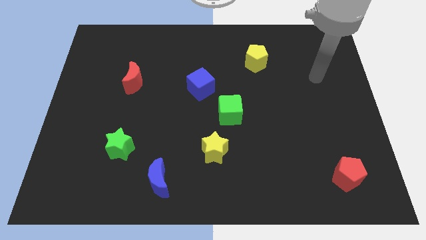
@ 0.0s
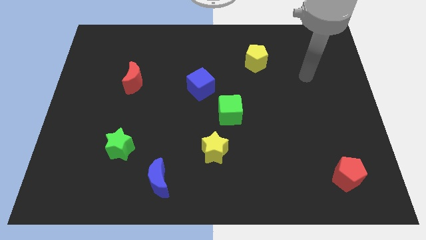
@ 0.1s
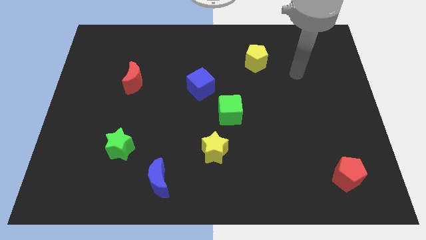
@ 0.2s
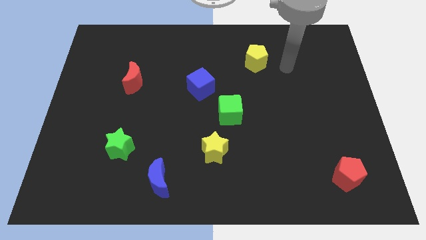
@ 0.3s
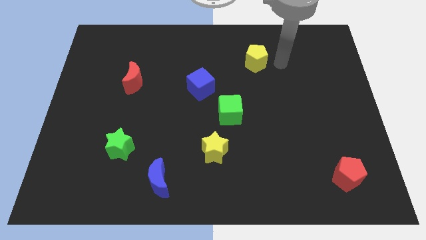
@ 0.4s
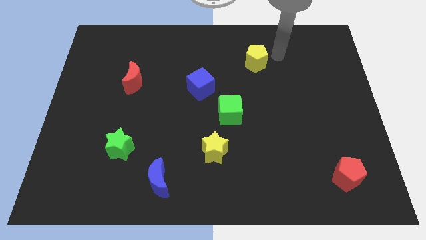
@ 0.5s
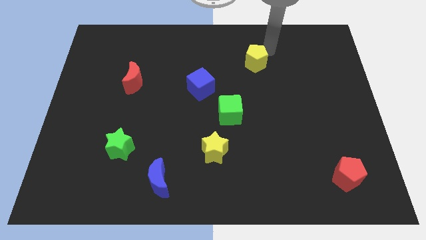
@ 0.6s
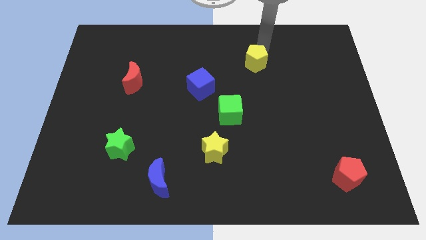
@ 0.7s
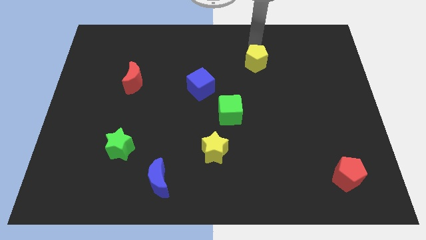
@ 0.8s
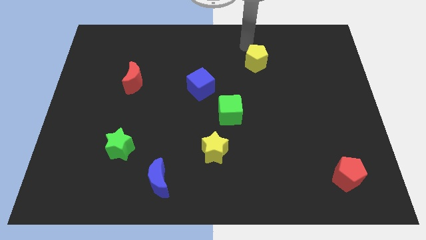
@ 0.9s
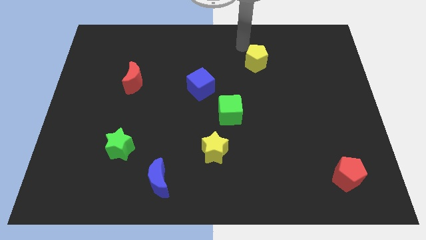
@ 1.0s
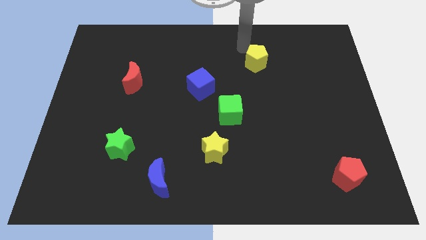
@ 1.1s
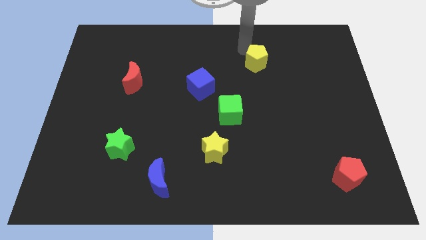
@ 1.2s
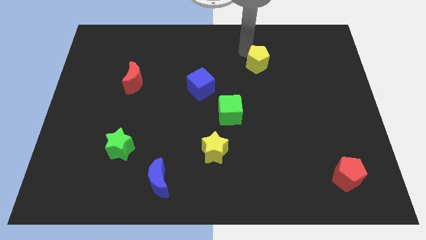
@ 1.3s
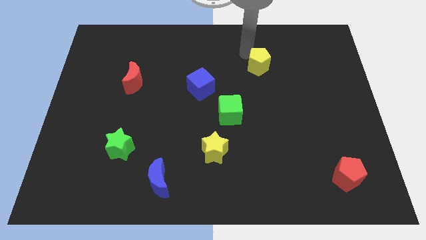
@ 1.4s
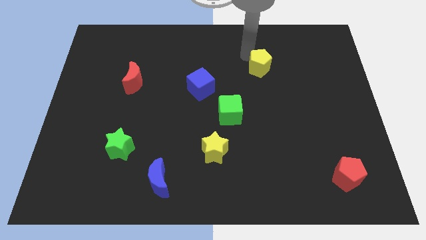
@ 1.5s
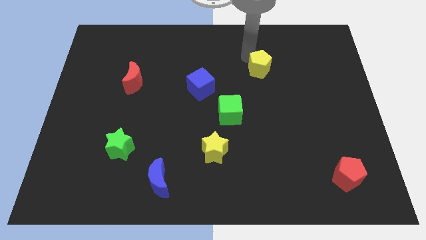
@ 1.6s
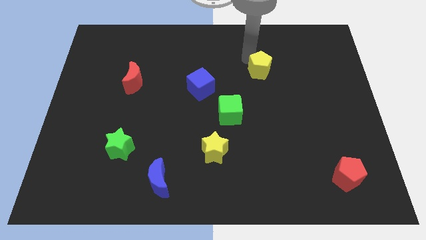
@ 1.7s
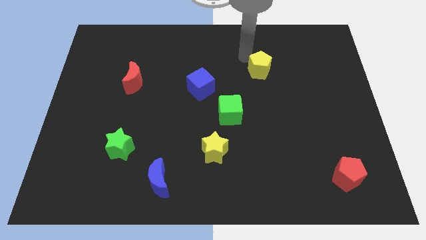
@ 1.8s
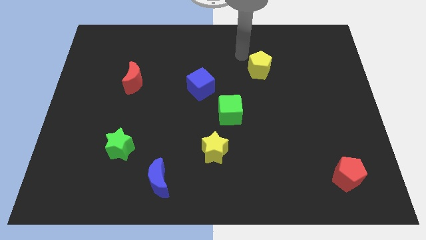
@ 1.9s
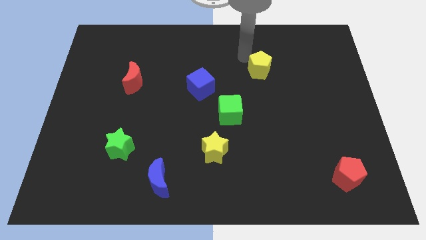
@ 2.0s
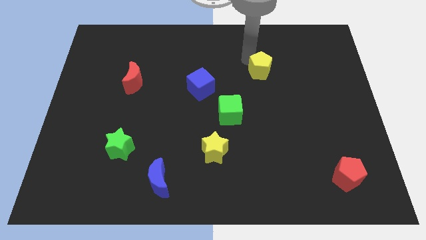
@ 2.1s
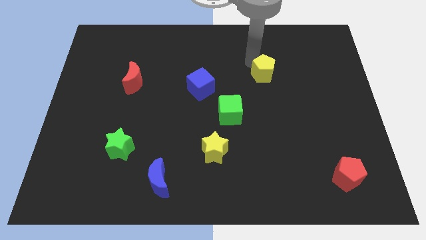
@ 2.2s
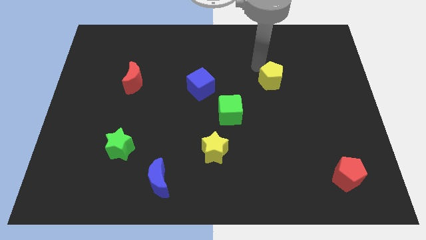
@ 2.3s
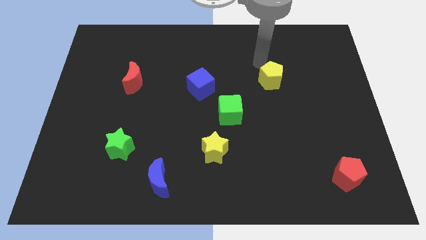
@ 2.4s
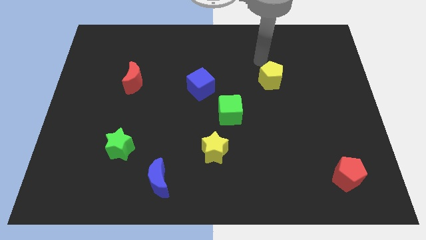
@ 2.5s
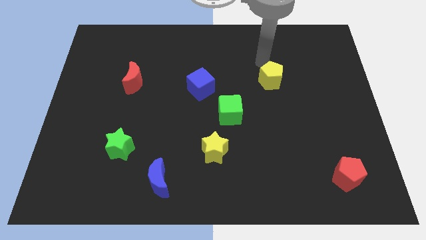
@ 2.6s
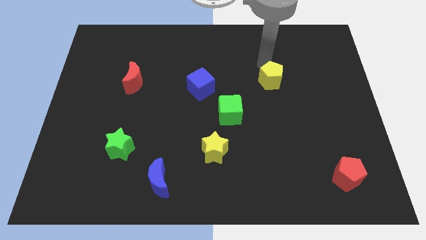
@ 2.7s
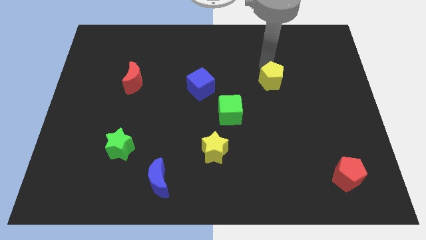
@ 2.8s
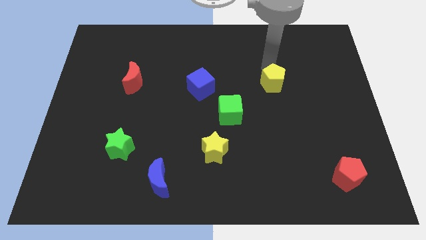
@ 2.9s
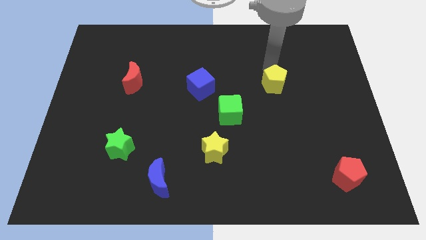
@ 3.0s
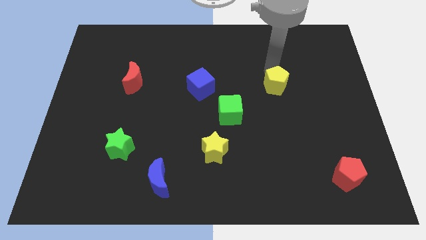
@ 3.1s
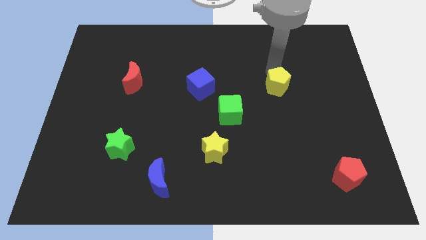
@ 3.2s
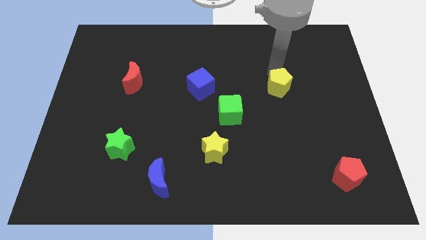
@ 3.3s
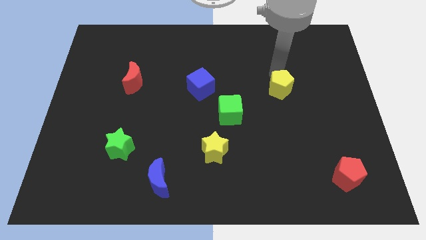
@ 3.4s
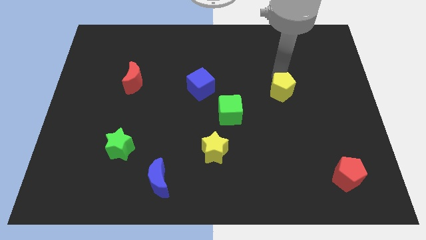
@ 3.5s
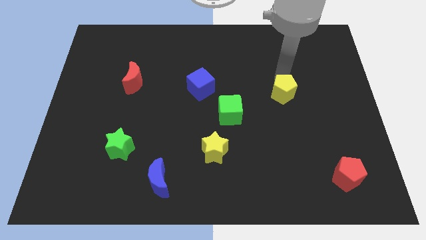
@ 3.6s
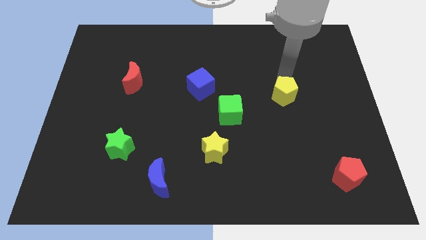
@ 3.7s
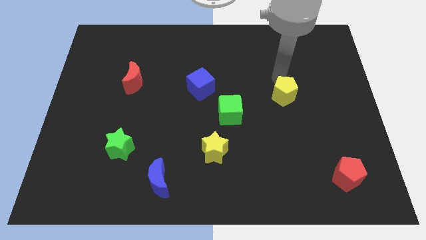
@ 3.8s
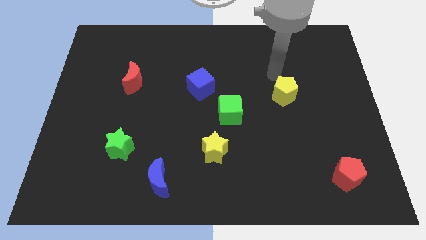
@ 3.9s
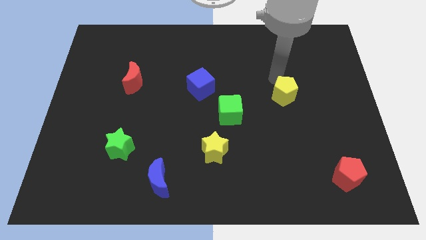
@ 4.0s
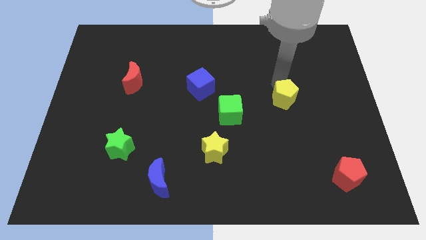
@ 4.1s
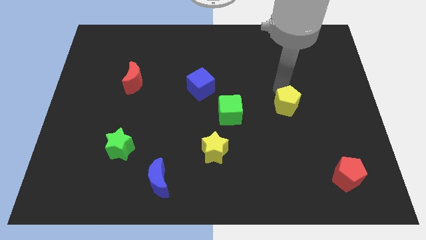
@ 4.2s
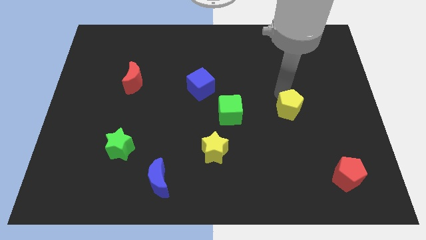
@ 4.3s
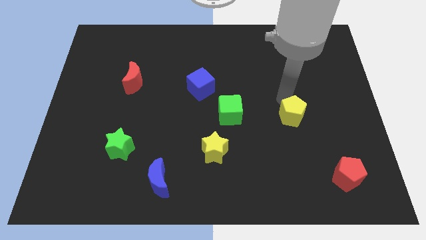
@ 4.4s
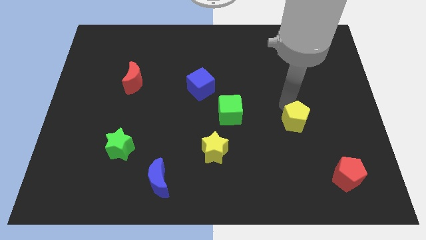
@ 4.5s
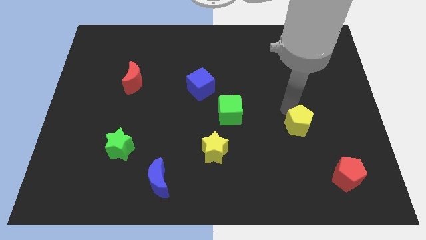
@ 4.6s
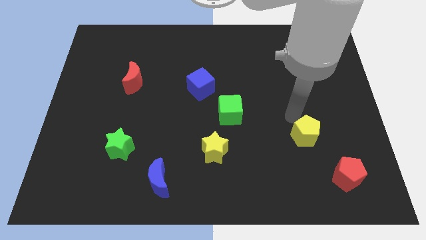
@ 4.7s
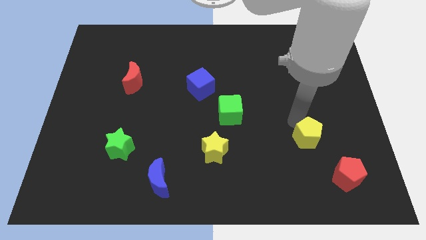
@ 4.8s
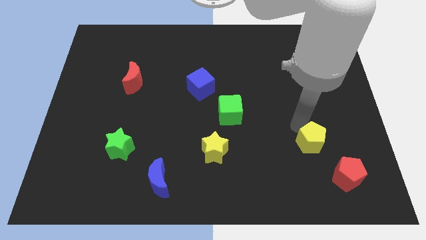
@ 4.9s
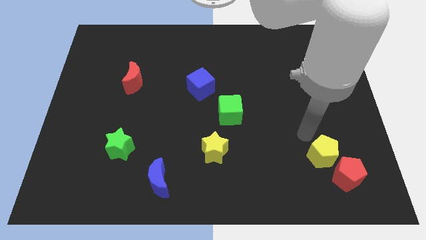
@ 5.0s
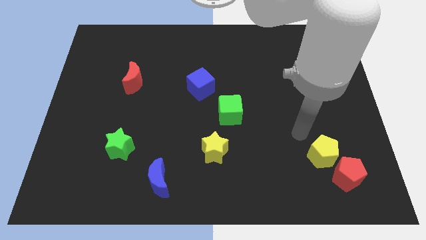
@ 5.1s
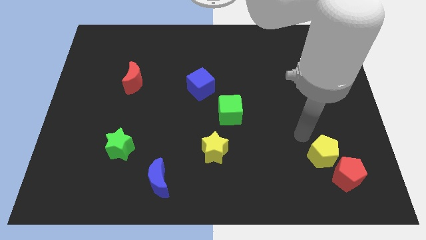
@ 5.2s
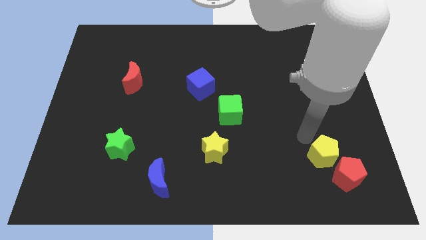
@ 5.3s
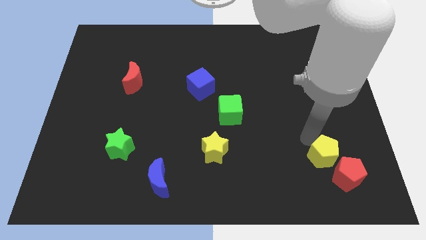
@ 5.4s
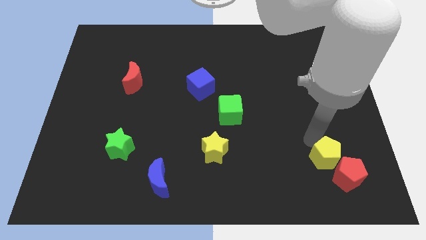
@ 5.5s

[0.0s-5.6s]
slide the yellow pentagon towards the red pentagon

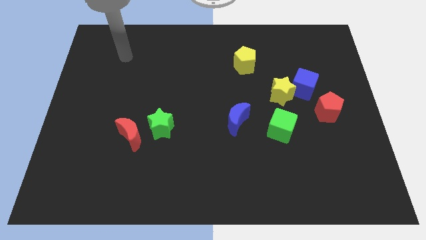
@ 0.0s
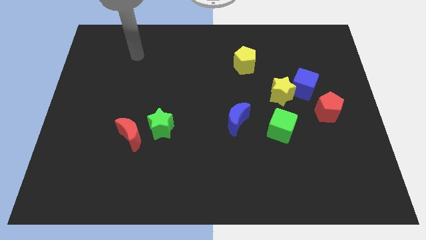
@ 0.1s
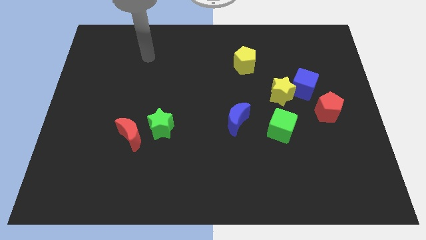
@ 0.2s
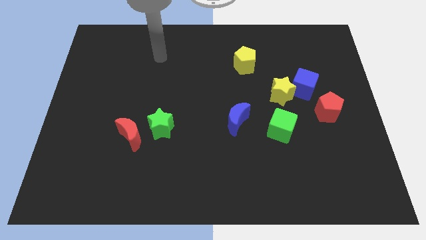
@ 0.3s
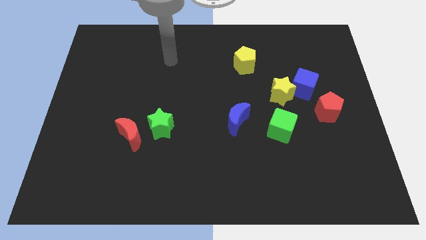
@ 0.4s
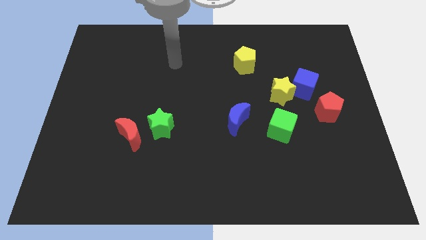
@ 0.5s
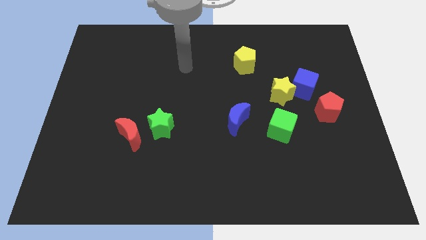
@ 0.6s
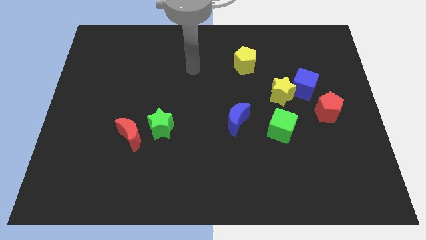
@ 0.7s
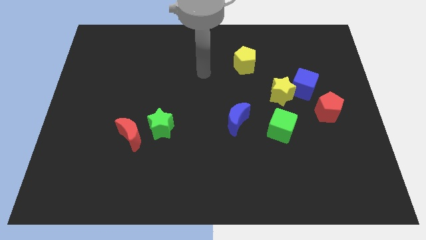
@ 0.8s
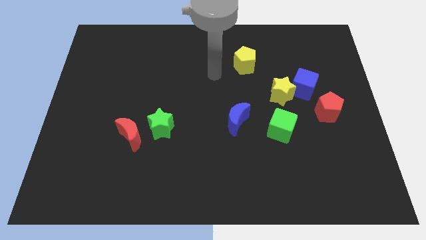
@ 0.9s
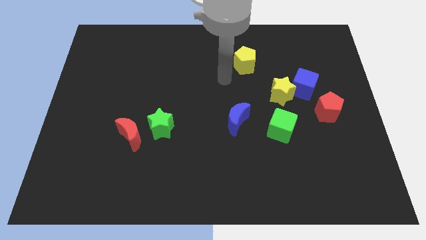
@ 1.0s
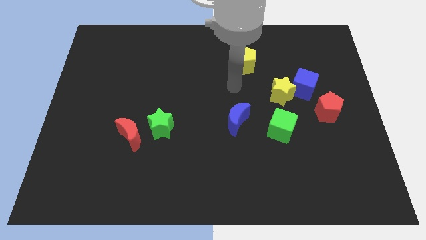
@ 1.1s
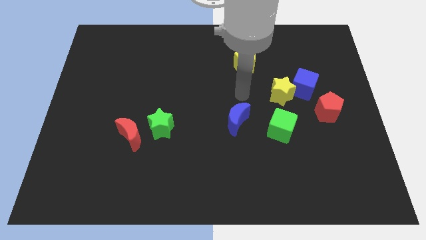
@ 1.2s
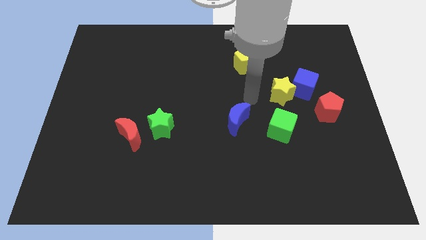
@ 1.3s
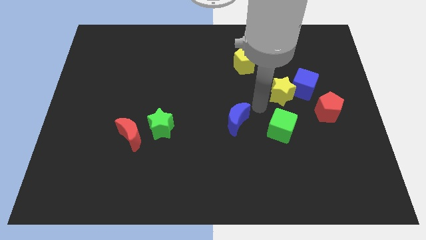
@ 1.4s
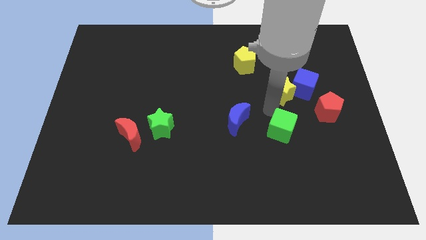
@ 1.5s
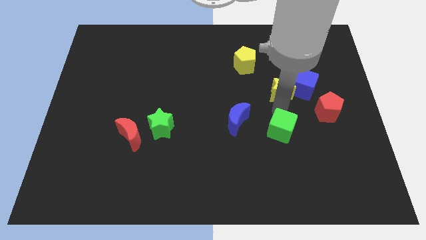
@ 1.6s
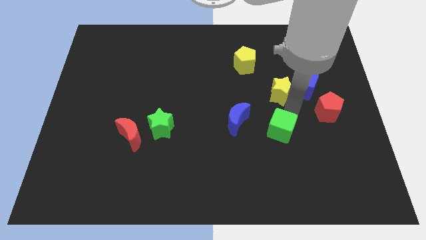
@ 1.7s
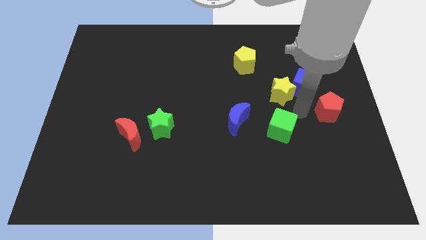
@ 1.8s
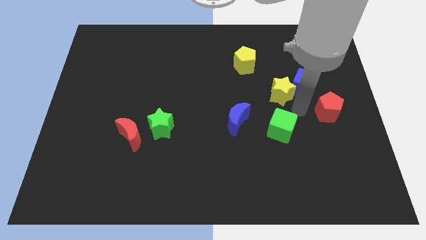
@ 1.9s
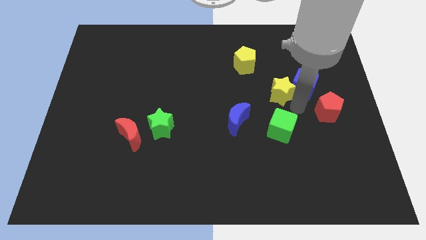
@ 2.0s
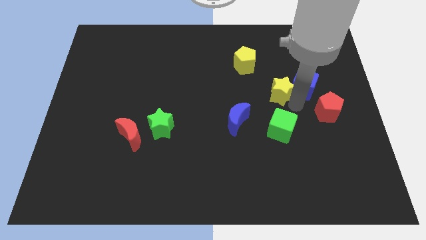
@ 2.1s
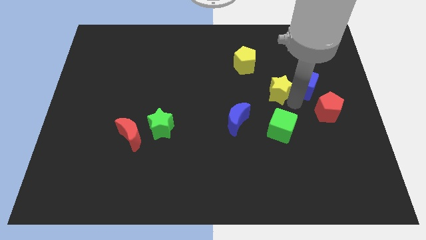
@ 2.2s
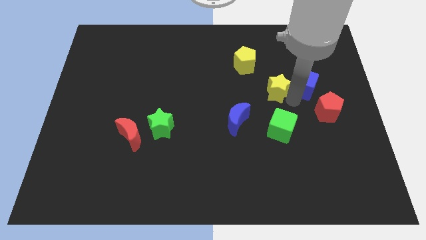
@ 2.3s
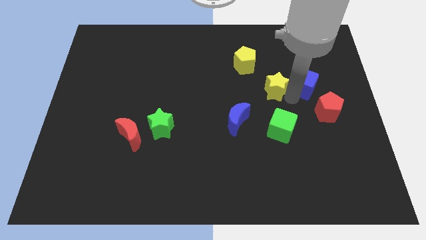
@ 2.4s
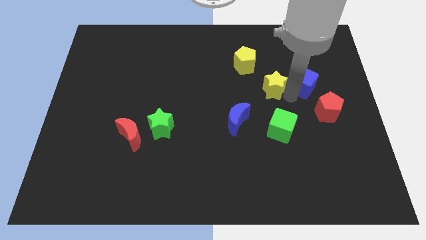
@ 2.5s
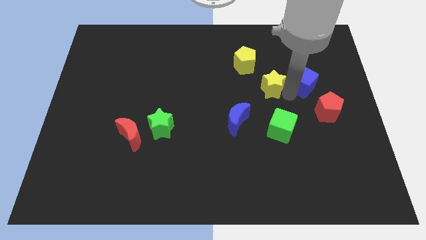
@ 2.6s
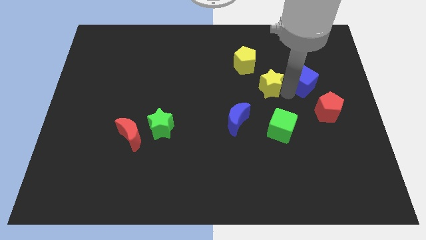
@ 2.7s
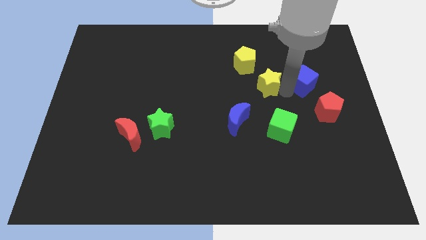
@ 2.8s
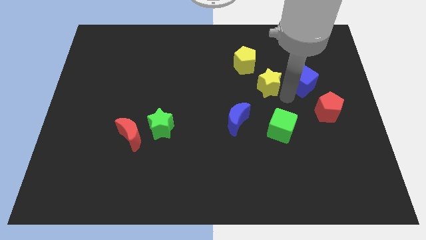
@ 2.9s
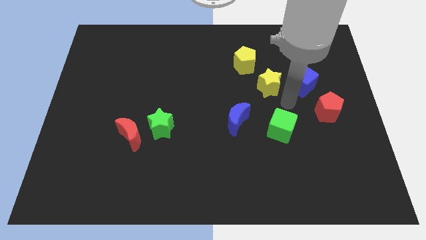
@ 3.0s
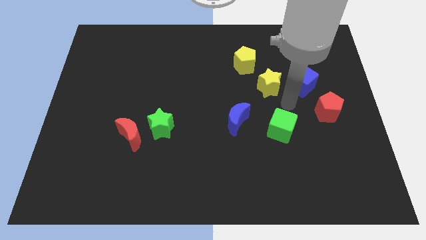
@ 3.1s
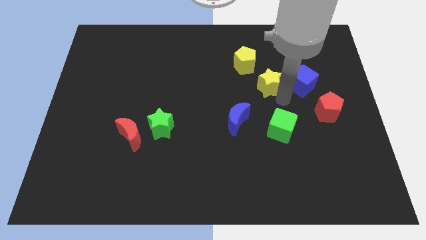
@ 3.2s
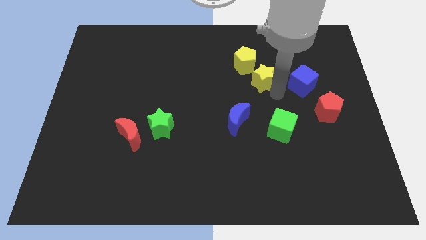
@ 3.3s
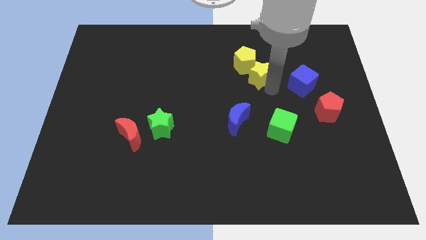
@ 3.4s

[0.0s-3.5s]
slide the yellow star next to the yellow pentagon
